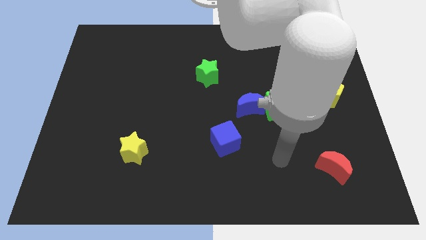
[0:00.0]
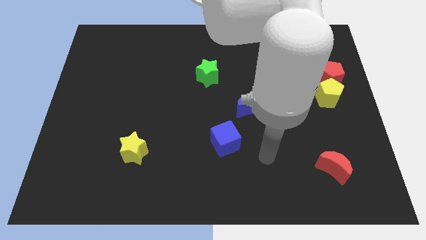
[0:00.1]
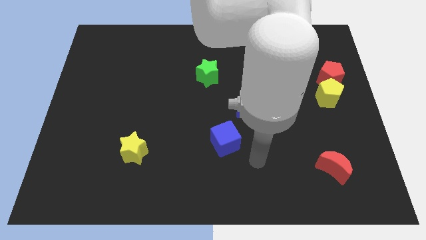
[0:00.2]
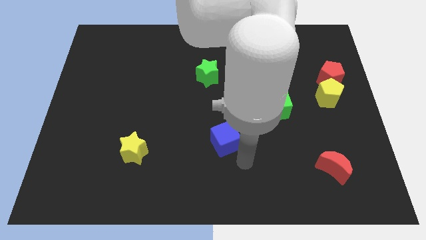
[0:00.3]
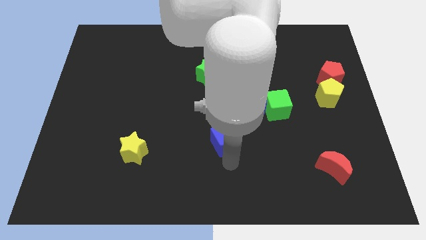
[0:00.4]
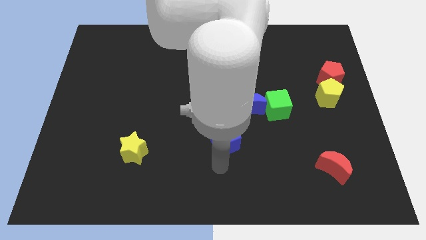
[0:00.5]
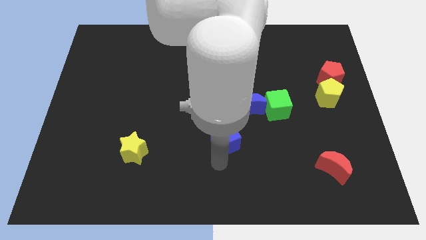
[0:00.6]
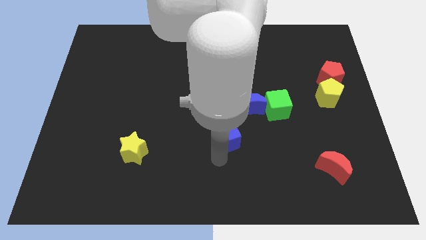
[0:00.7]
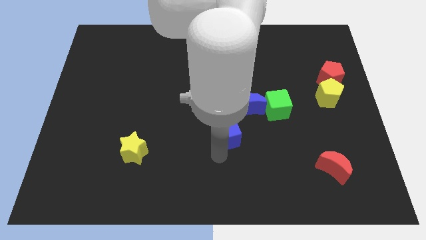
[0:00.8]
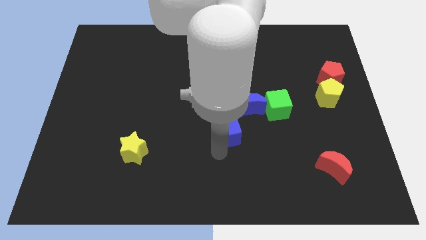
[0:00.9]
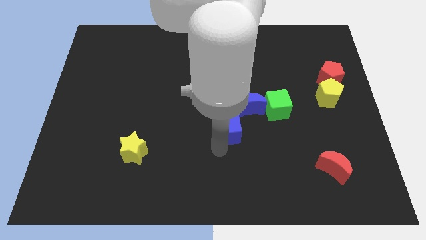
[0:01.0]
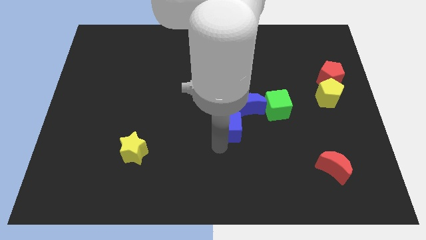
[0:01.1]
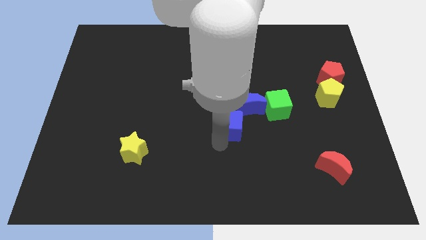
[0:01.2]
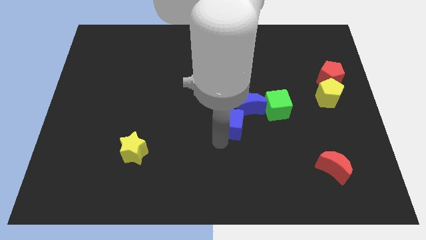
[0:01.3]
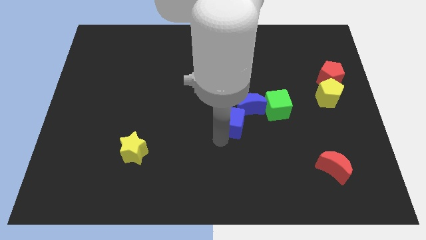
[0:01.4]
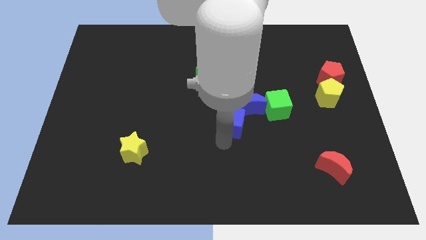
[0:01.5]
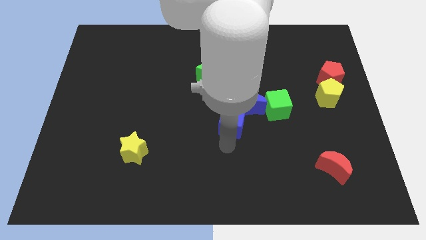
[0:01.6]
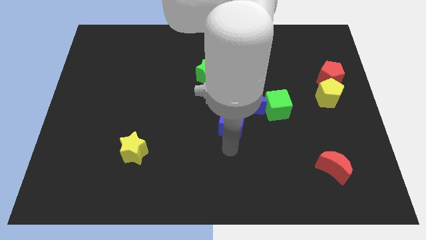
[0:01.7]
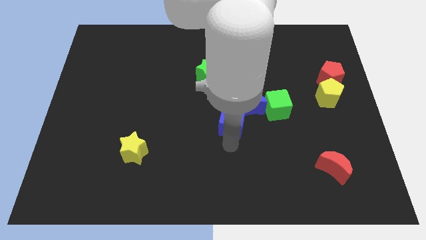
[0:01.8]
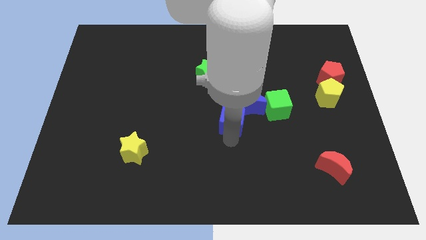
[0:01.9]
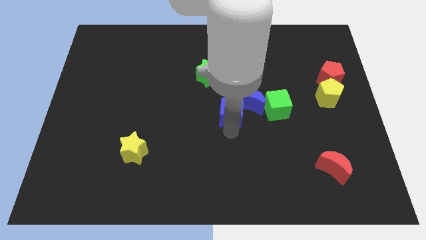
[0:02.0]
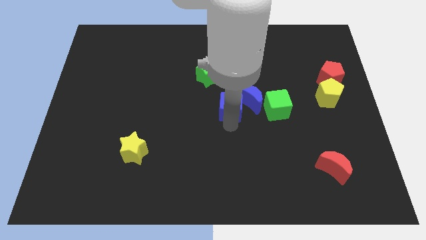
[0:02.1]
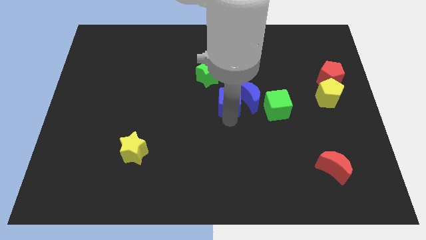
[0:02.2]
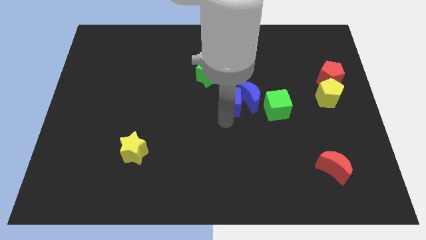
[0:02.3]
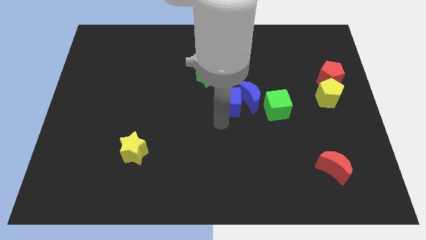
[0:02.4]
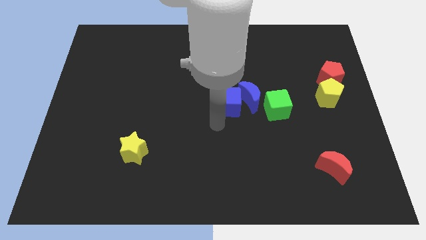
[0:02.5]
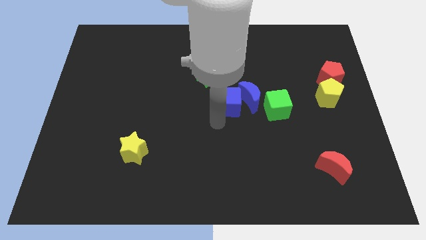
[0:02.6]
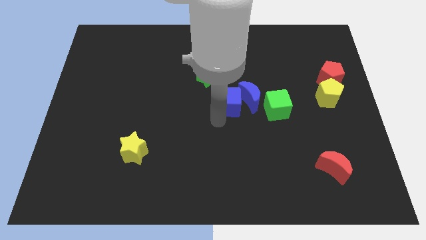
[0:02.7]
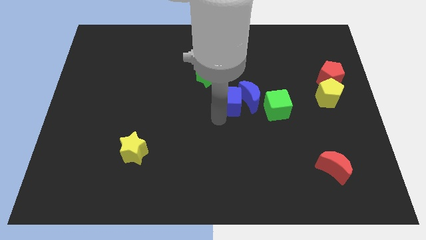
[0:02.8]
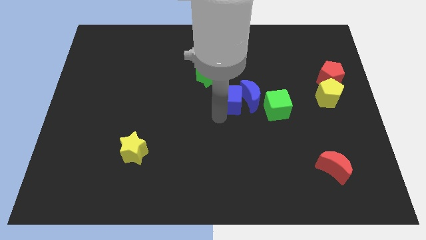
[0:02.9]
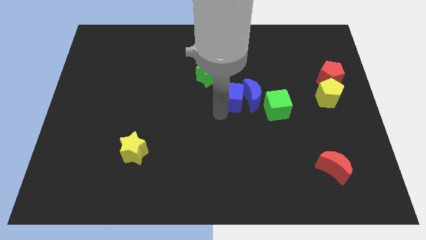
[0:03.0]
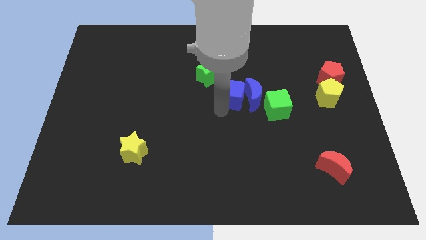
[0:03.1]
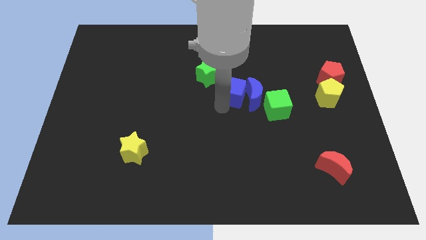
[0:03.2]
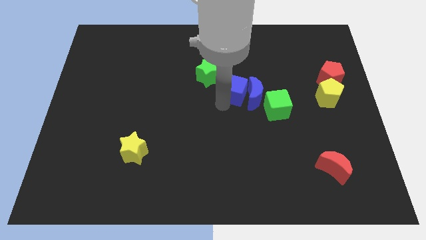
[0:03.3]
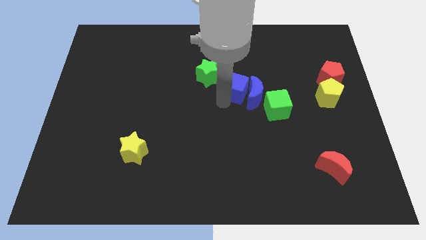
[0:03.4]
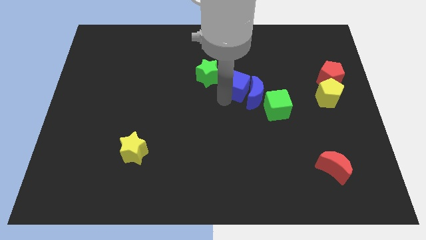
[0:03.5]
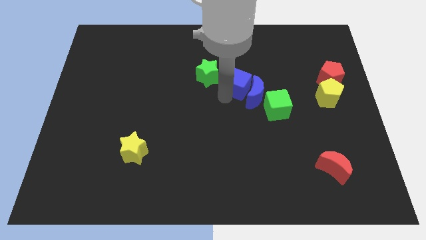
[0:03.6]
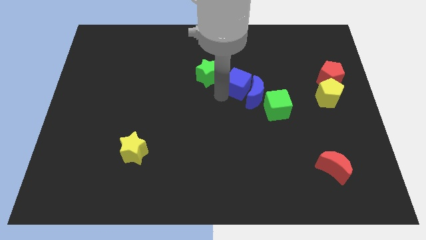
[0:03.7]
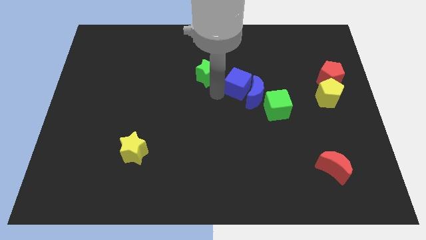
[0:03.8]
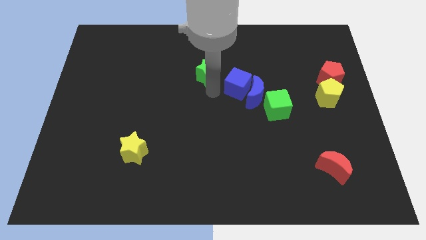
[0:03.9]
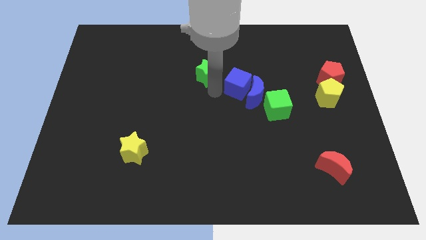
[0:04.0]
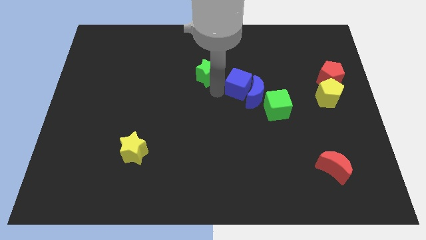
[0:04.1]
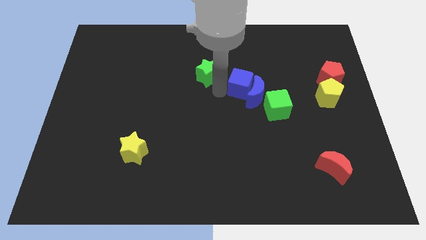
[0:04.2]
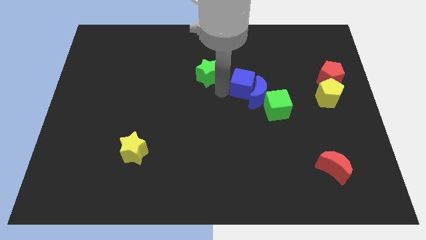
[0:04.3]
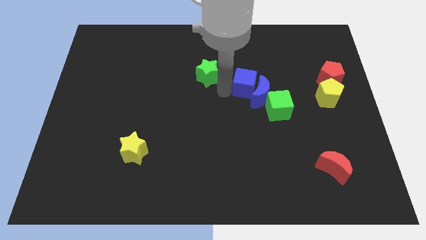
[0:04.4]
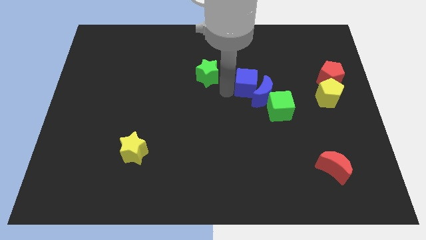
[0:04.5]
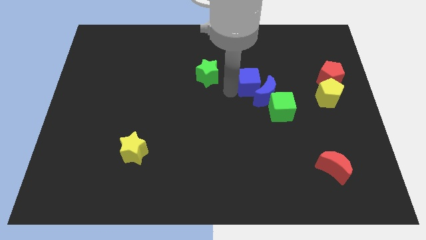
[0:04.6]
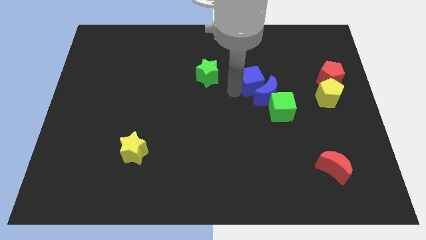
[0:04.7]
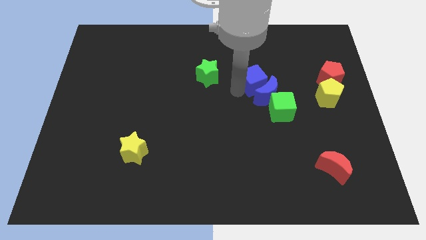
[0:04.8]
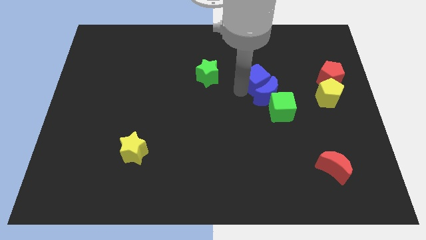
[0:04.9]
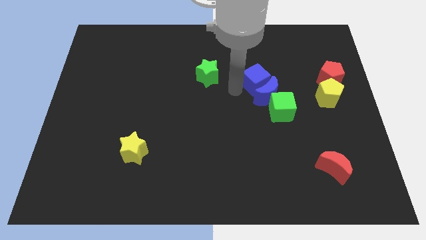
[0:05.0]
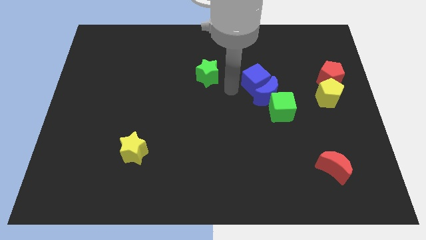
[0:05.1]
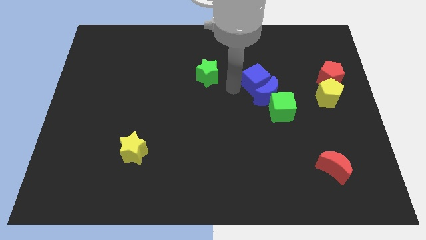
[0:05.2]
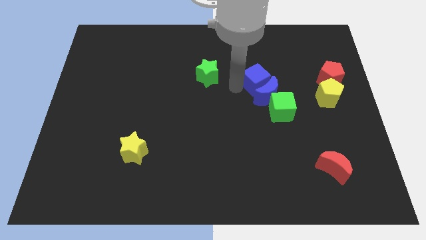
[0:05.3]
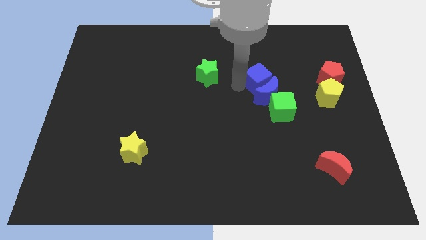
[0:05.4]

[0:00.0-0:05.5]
put the blue cube above the green cube
